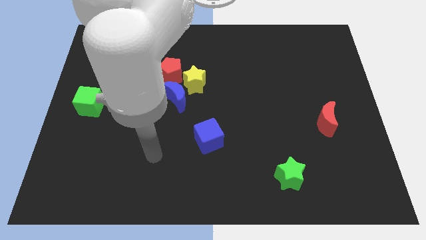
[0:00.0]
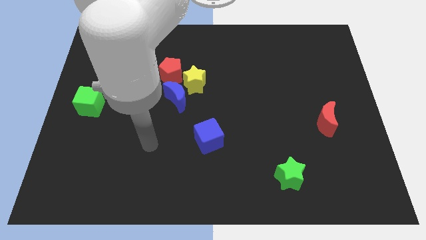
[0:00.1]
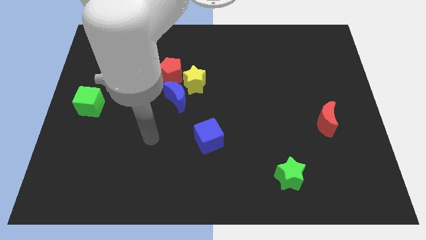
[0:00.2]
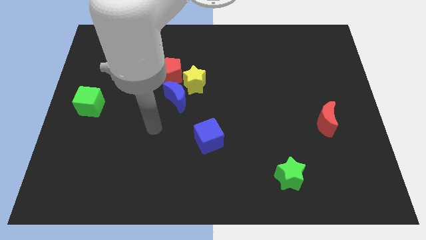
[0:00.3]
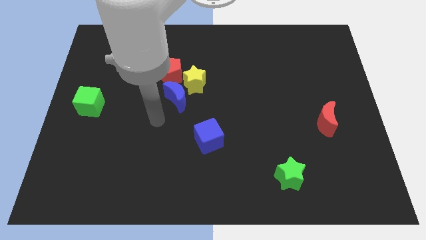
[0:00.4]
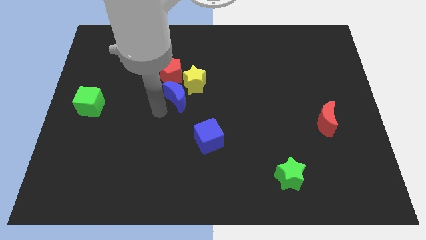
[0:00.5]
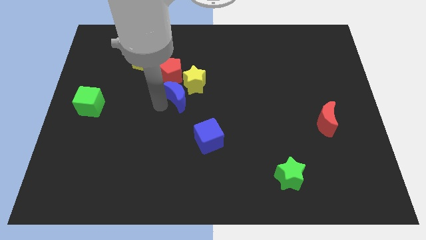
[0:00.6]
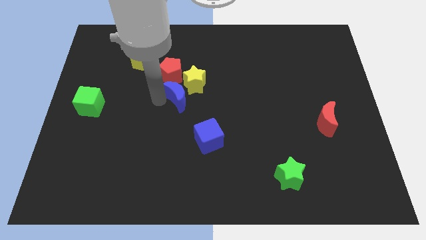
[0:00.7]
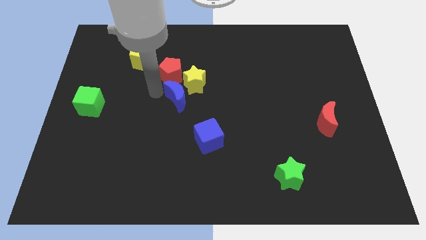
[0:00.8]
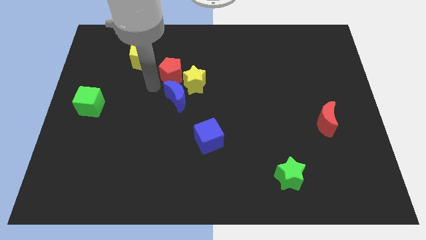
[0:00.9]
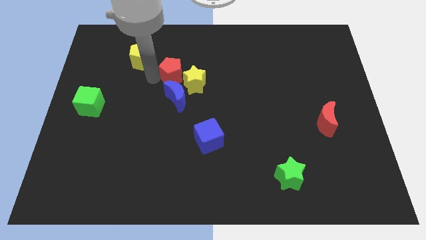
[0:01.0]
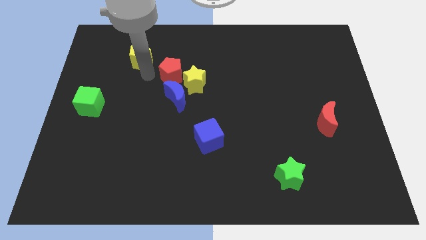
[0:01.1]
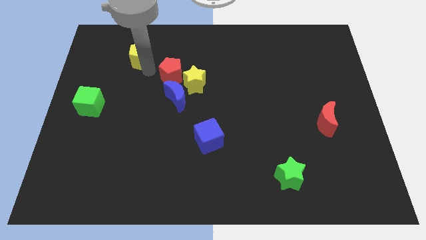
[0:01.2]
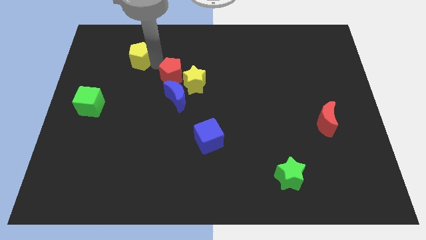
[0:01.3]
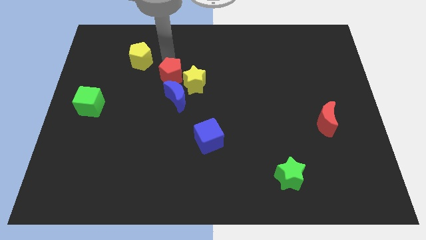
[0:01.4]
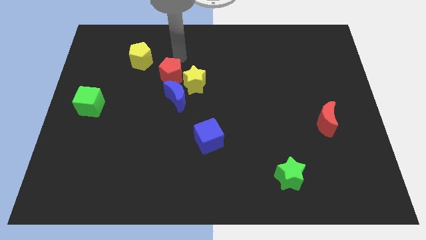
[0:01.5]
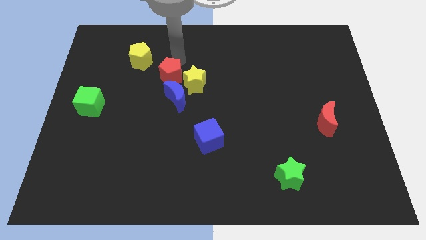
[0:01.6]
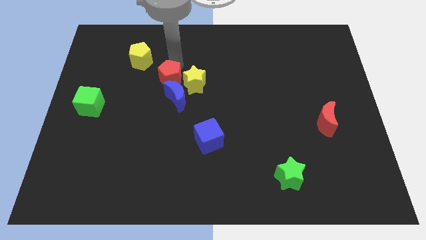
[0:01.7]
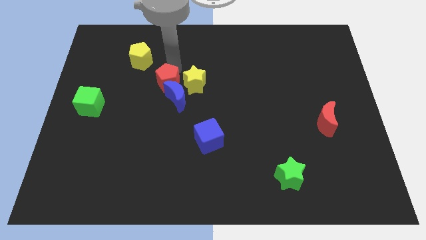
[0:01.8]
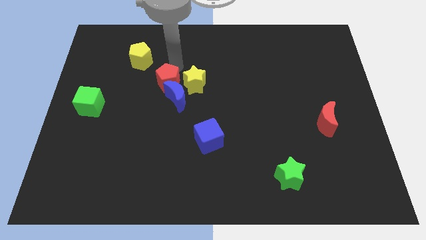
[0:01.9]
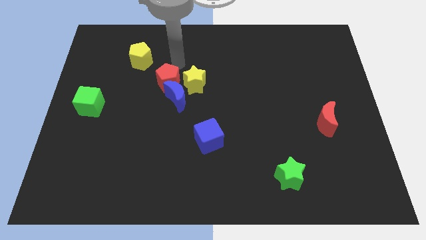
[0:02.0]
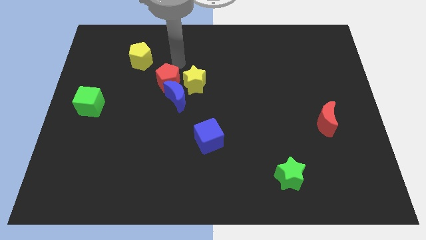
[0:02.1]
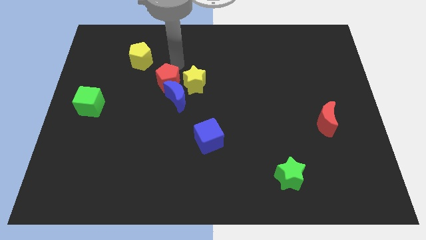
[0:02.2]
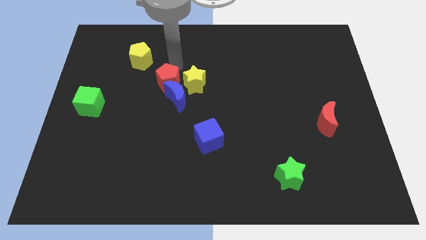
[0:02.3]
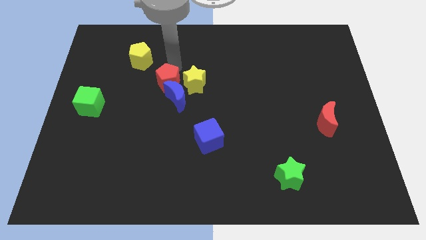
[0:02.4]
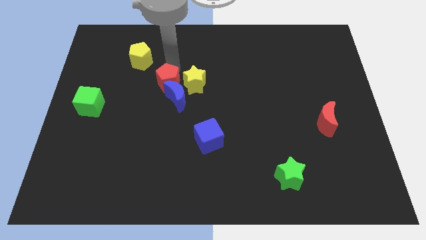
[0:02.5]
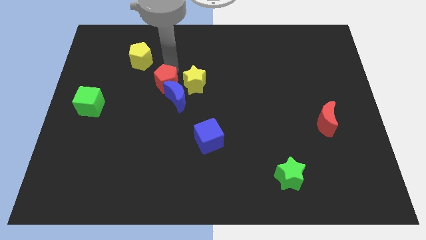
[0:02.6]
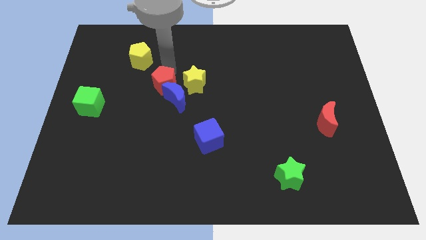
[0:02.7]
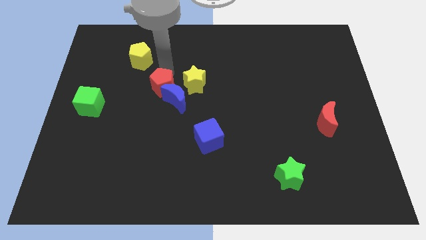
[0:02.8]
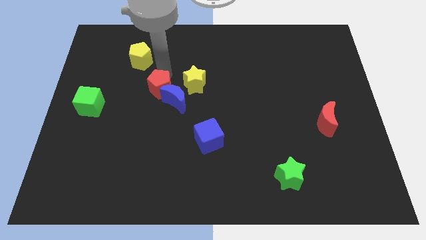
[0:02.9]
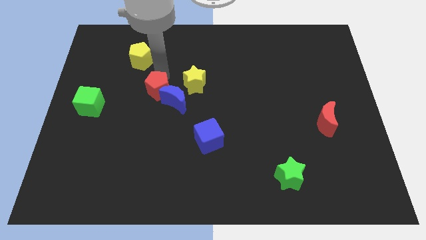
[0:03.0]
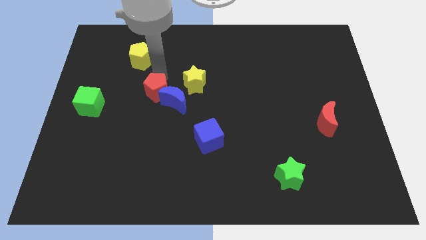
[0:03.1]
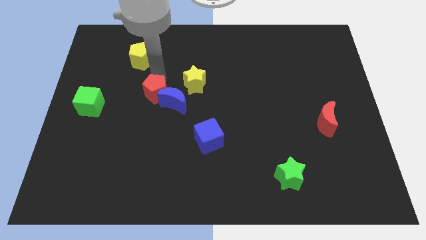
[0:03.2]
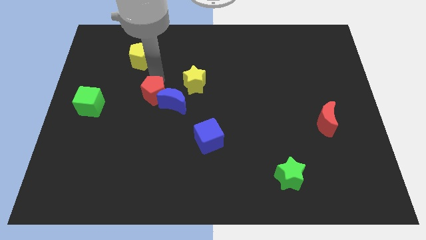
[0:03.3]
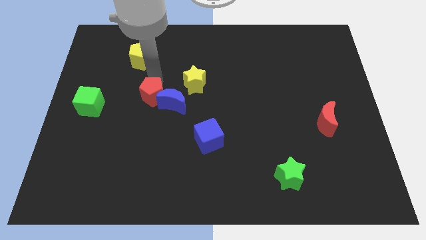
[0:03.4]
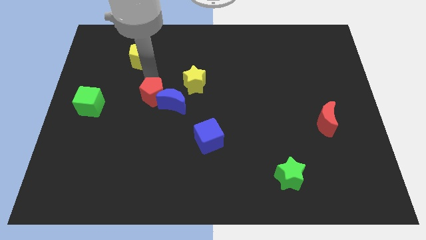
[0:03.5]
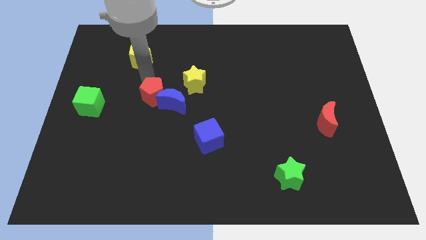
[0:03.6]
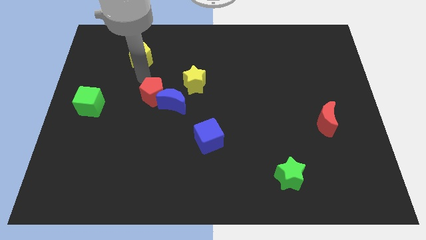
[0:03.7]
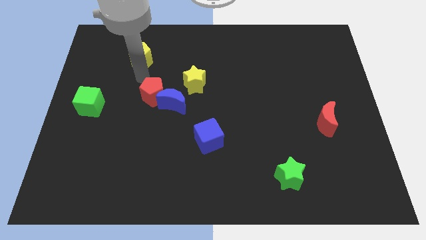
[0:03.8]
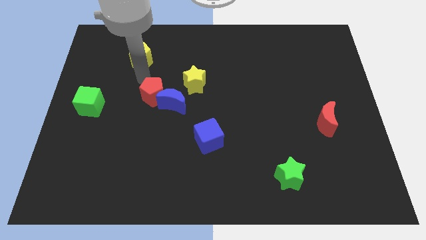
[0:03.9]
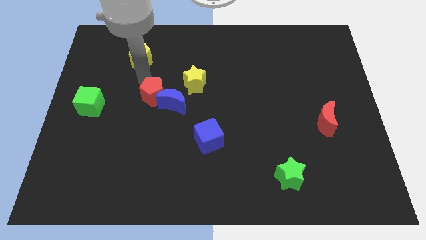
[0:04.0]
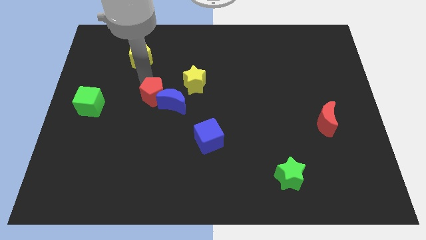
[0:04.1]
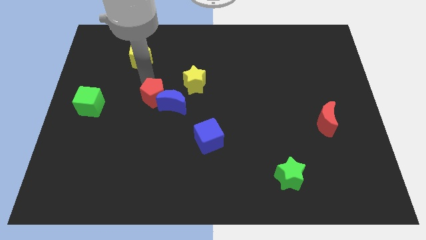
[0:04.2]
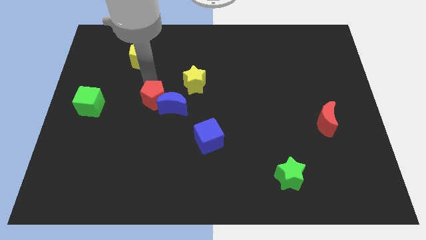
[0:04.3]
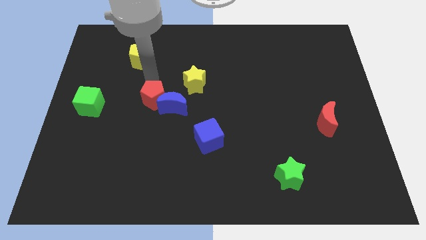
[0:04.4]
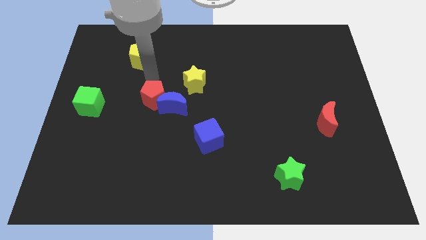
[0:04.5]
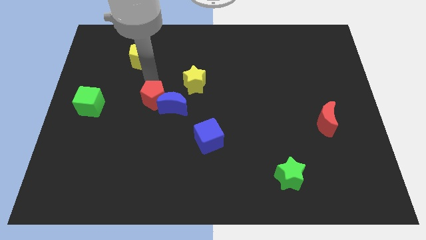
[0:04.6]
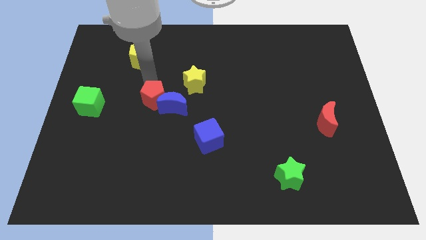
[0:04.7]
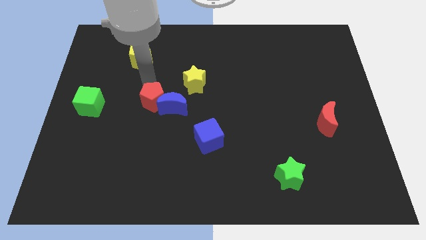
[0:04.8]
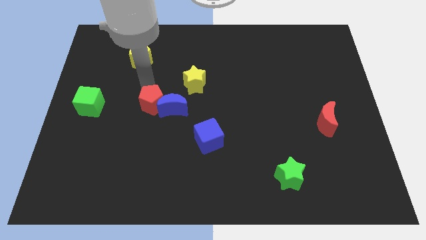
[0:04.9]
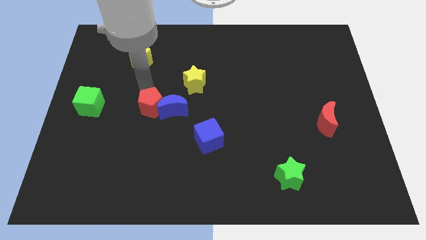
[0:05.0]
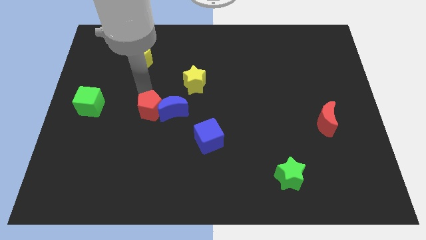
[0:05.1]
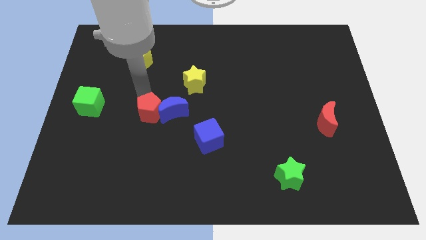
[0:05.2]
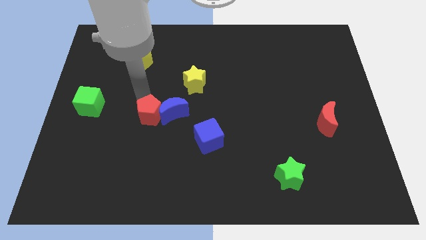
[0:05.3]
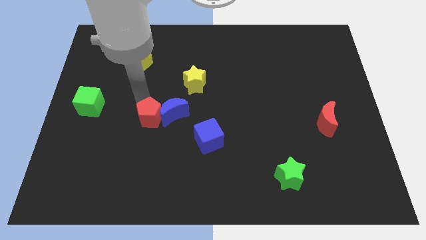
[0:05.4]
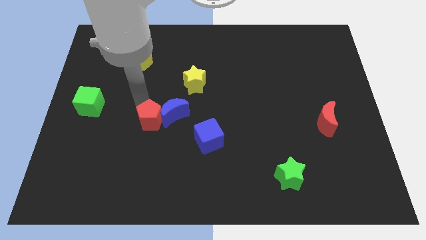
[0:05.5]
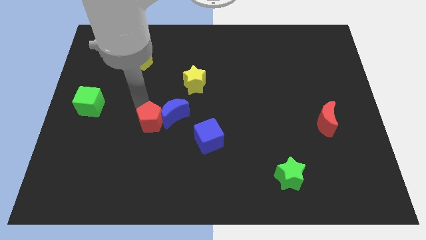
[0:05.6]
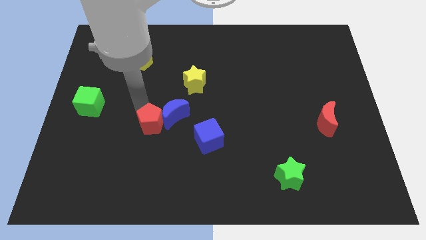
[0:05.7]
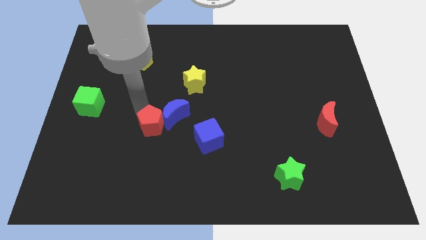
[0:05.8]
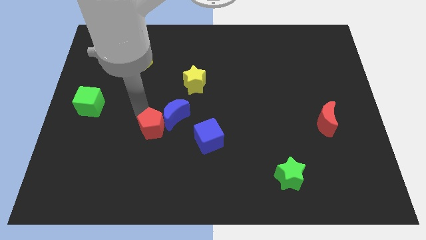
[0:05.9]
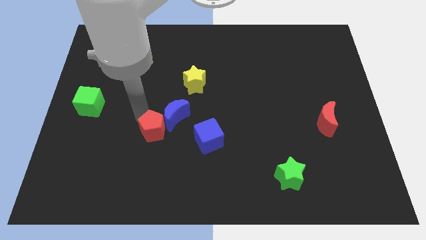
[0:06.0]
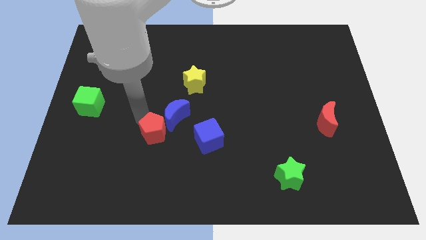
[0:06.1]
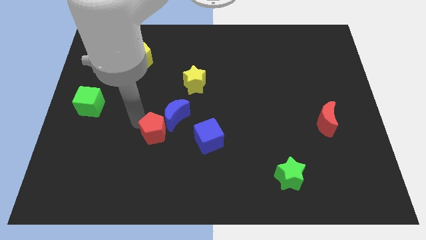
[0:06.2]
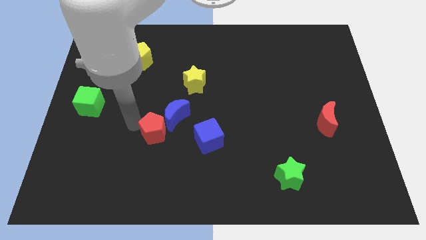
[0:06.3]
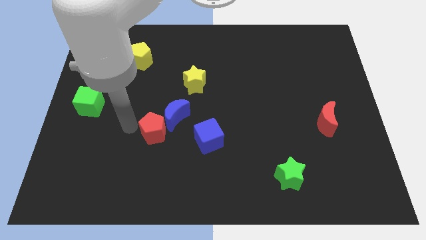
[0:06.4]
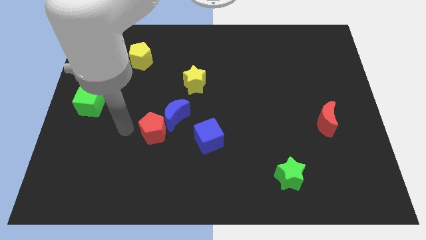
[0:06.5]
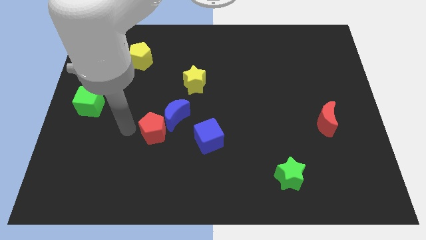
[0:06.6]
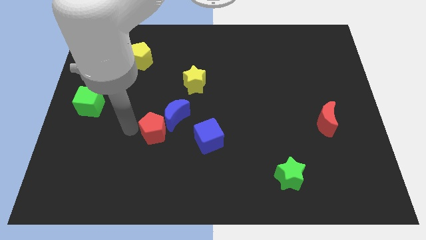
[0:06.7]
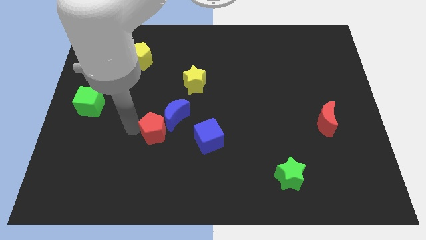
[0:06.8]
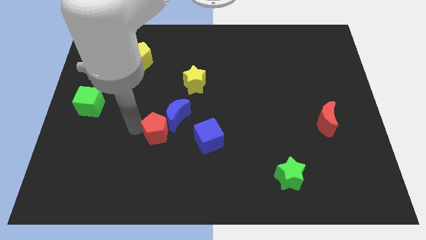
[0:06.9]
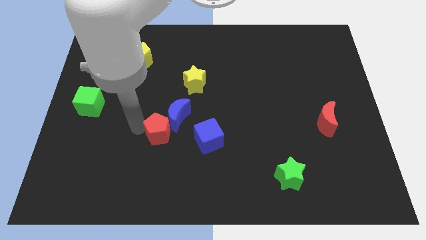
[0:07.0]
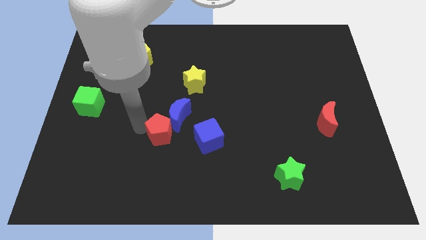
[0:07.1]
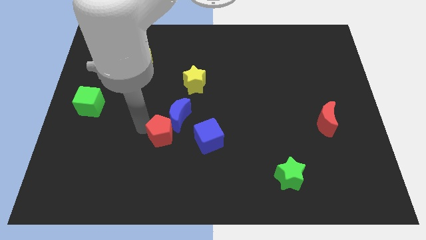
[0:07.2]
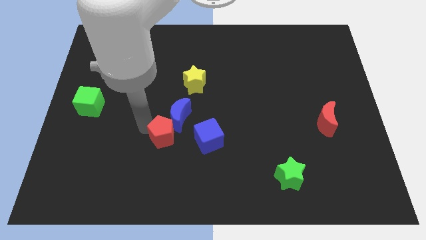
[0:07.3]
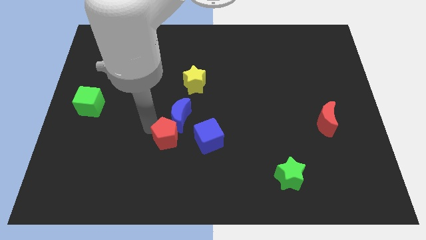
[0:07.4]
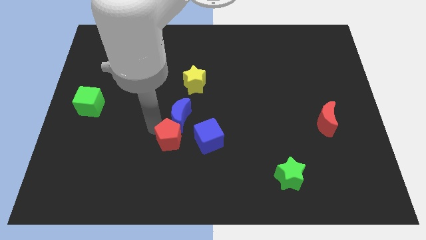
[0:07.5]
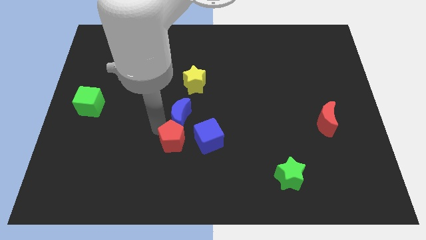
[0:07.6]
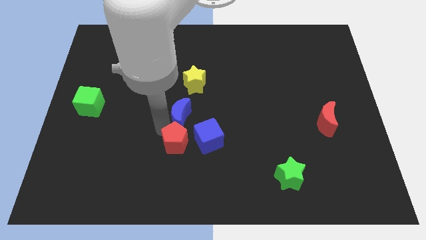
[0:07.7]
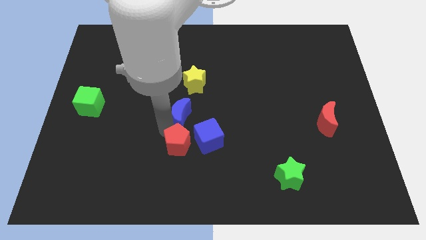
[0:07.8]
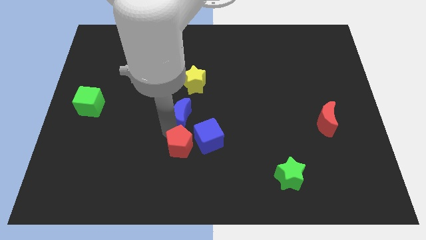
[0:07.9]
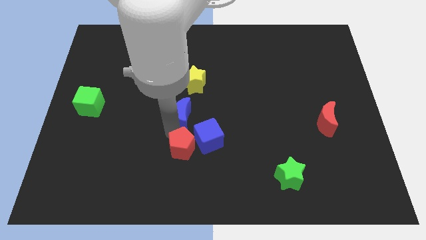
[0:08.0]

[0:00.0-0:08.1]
slide the red pentagon close to the blue cube
